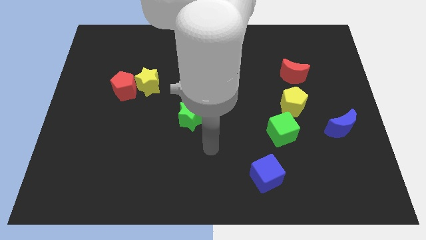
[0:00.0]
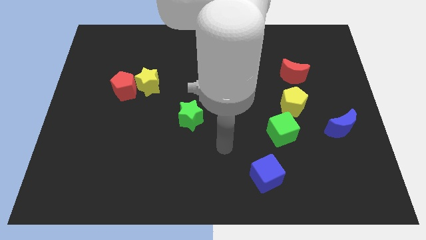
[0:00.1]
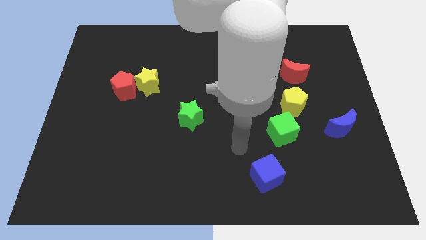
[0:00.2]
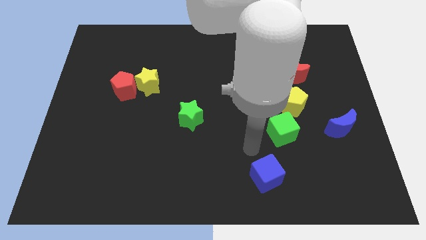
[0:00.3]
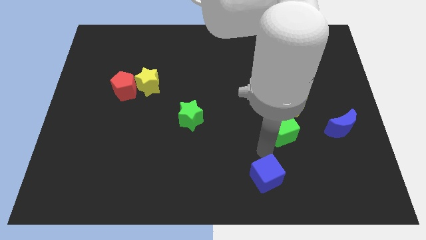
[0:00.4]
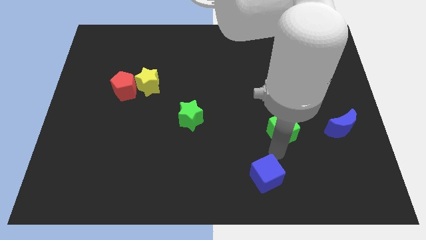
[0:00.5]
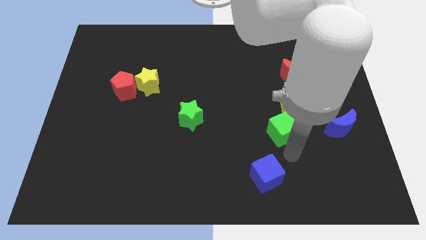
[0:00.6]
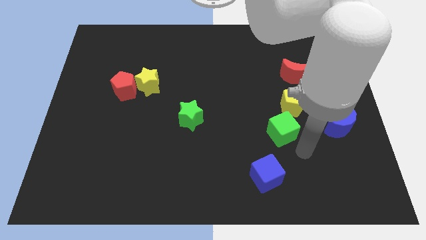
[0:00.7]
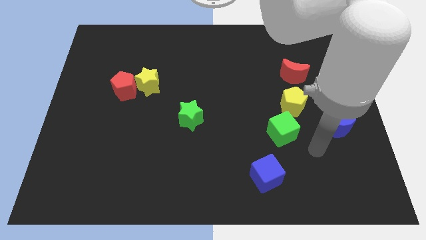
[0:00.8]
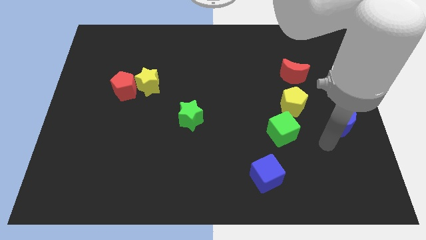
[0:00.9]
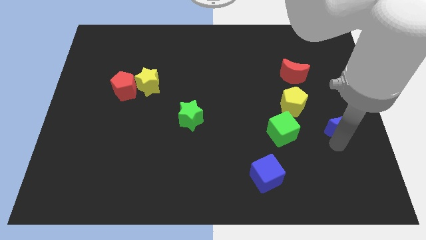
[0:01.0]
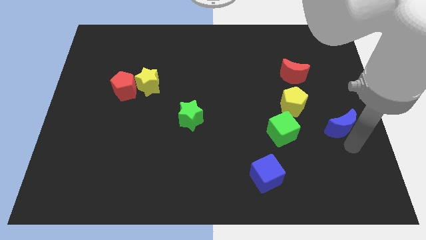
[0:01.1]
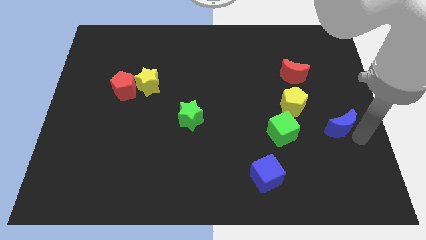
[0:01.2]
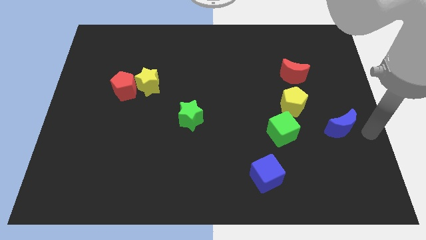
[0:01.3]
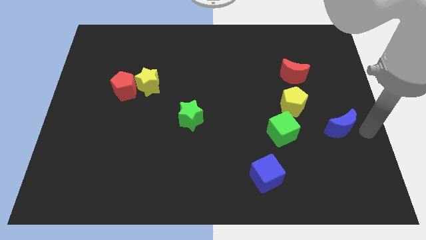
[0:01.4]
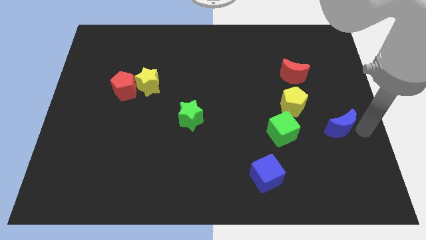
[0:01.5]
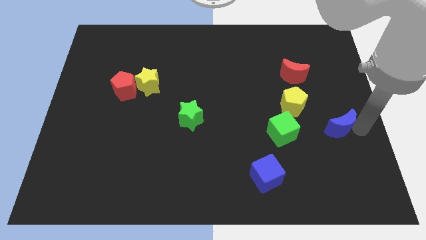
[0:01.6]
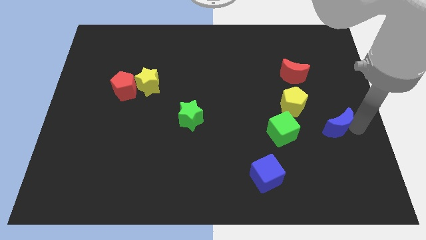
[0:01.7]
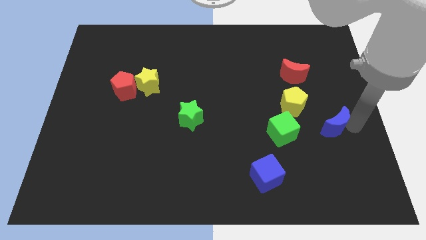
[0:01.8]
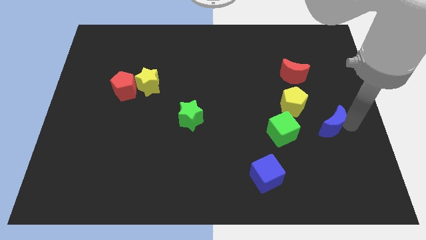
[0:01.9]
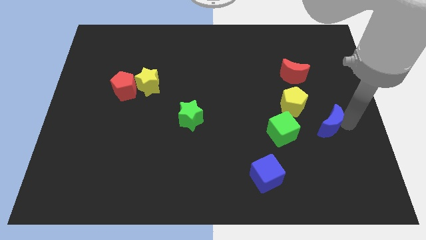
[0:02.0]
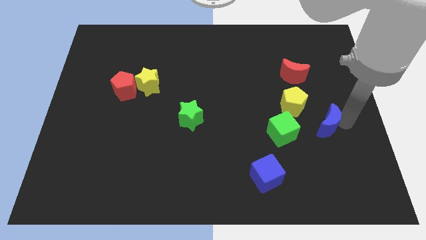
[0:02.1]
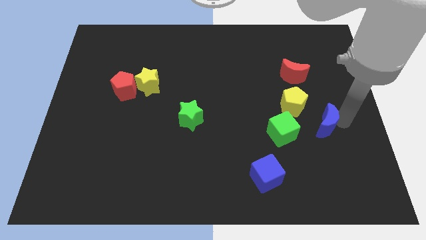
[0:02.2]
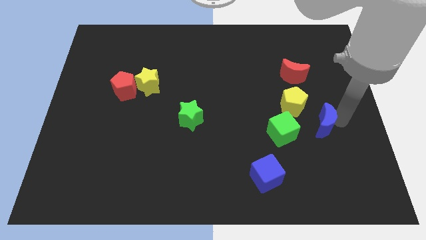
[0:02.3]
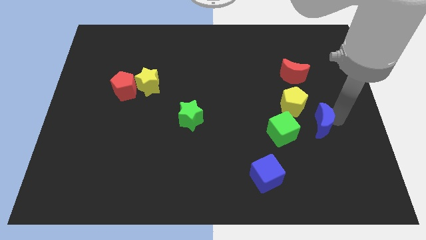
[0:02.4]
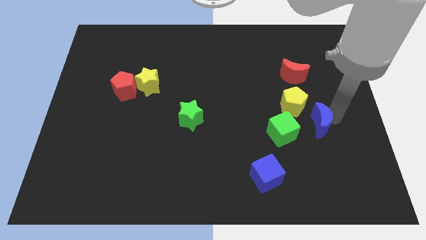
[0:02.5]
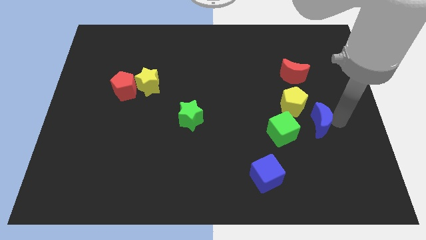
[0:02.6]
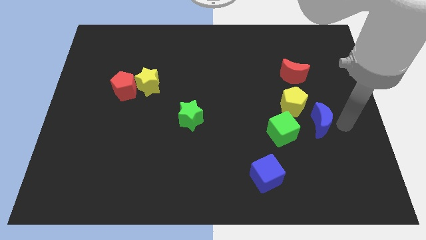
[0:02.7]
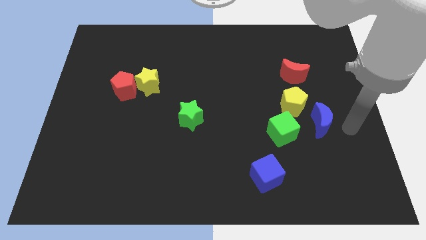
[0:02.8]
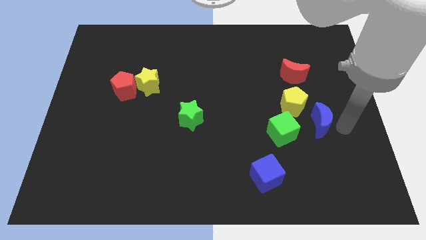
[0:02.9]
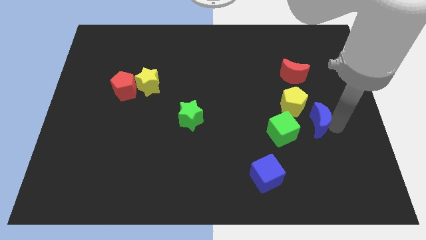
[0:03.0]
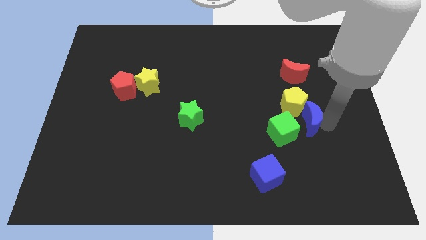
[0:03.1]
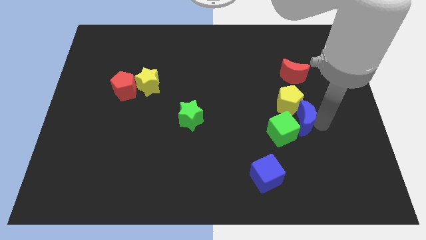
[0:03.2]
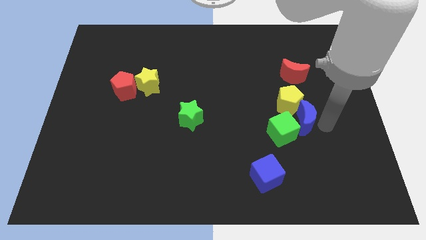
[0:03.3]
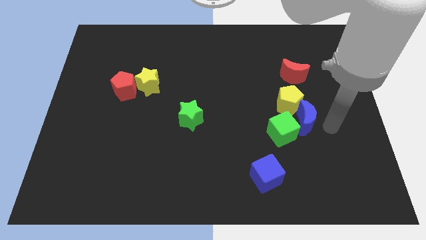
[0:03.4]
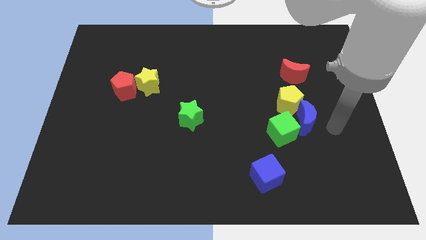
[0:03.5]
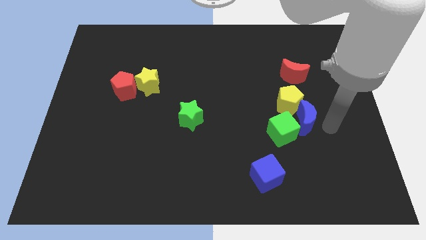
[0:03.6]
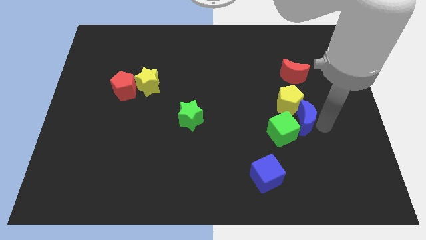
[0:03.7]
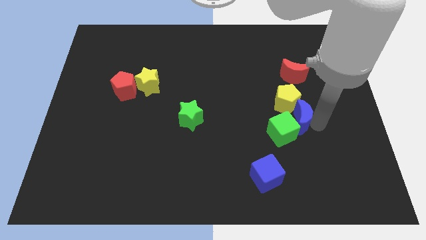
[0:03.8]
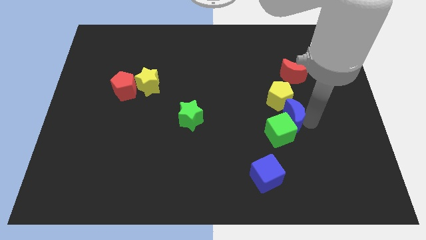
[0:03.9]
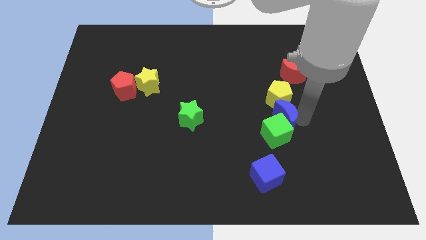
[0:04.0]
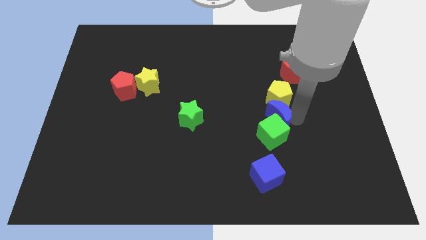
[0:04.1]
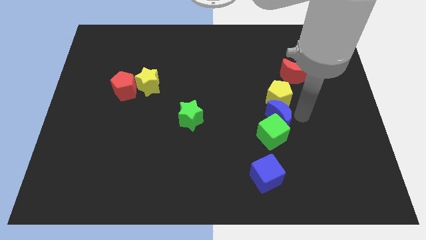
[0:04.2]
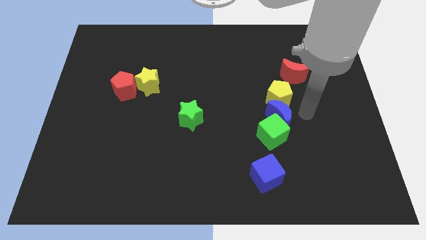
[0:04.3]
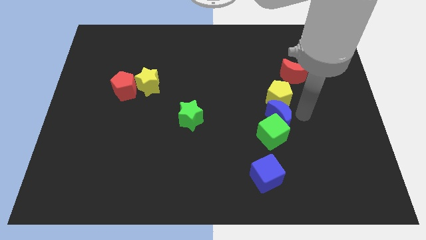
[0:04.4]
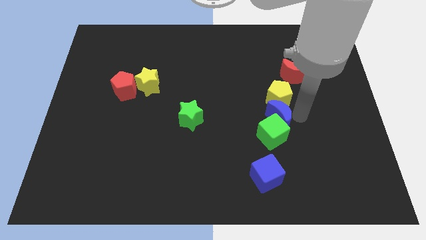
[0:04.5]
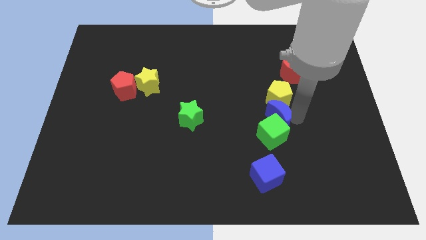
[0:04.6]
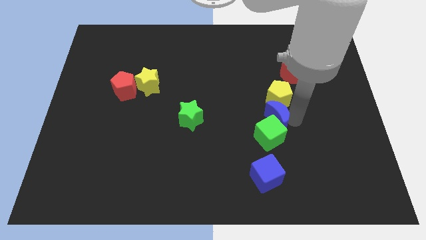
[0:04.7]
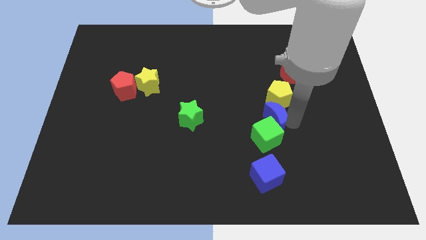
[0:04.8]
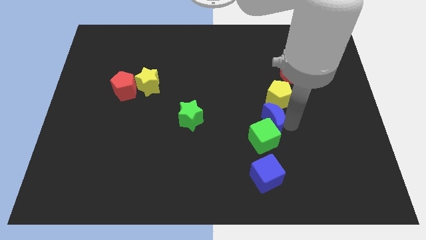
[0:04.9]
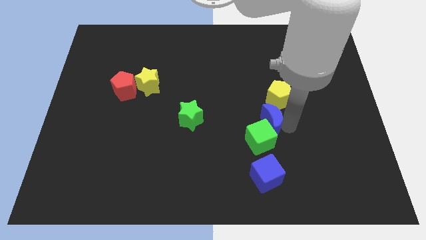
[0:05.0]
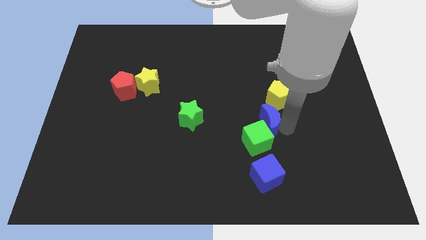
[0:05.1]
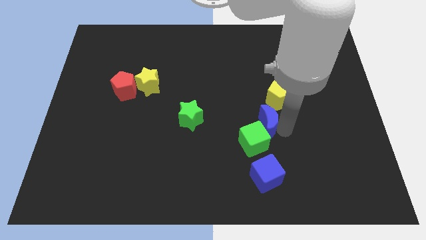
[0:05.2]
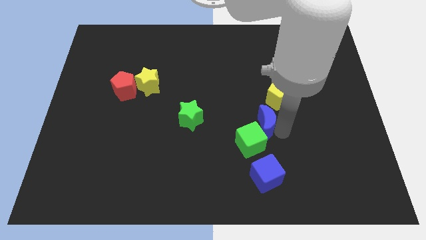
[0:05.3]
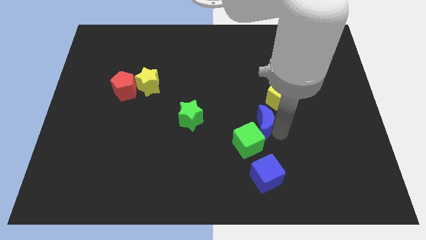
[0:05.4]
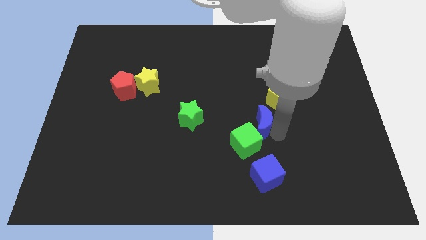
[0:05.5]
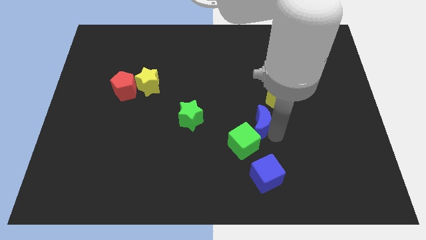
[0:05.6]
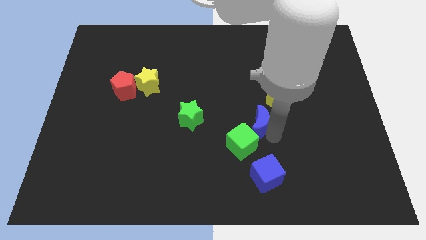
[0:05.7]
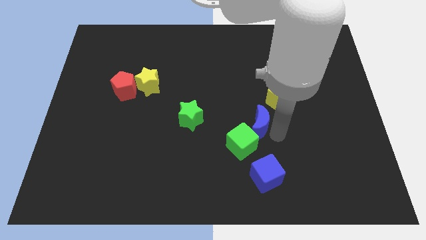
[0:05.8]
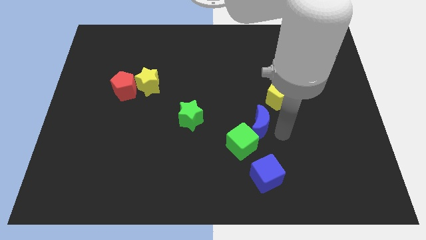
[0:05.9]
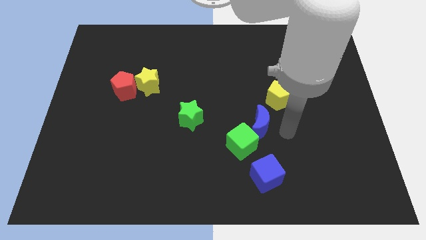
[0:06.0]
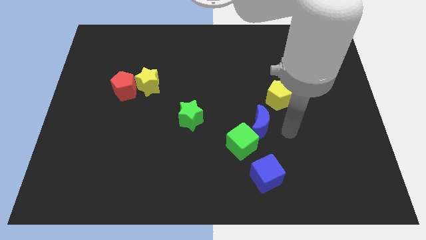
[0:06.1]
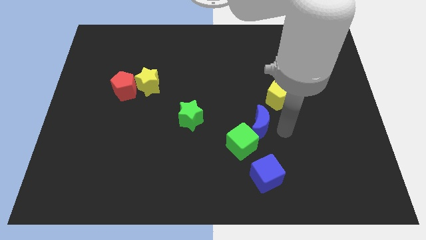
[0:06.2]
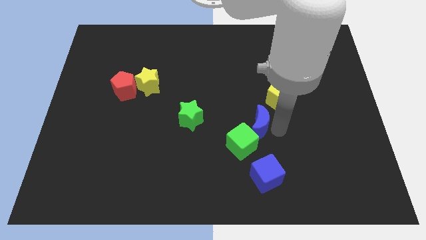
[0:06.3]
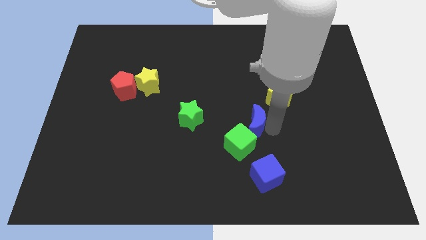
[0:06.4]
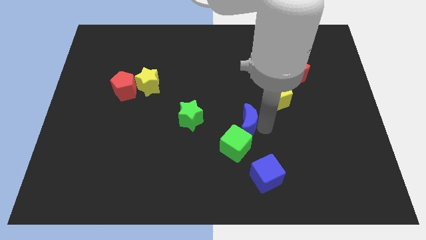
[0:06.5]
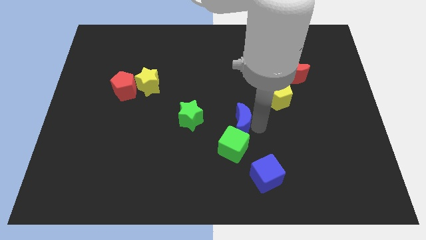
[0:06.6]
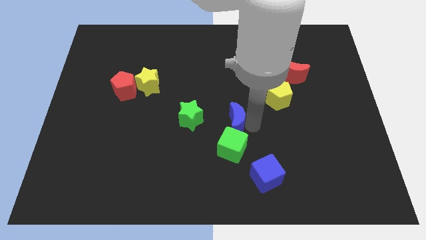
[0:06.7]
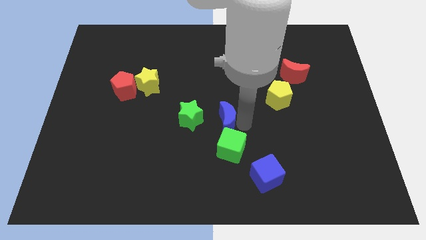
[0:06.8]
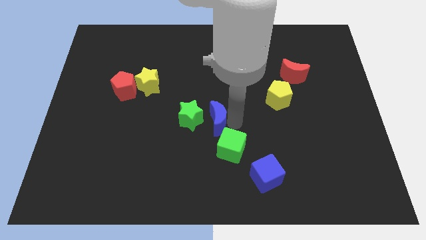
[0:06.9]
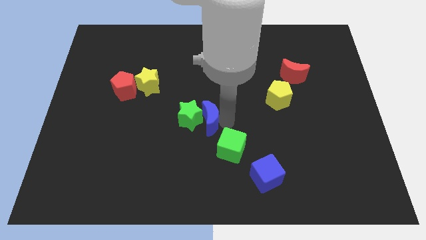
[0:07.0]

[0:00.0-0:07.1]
put the blue moon to the green star

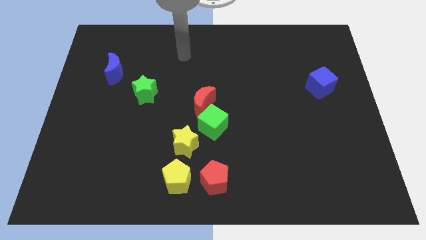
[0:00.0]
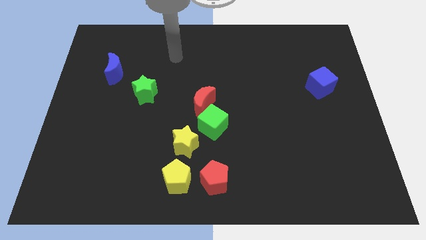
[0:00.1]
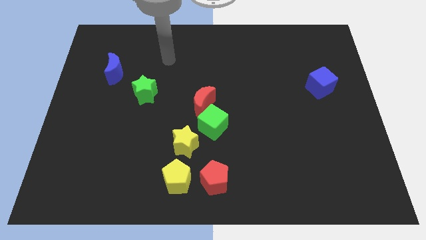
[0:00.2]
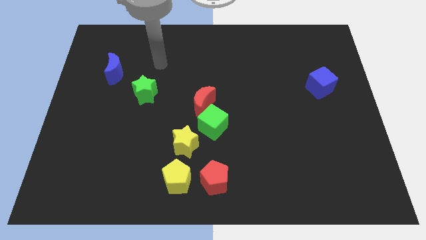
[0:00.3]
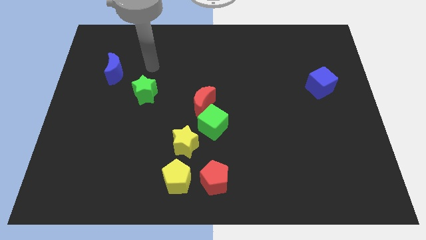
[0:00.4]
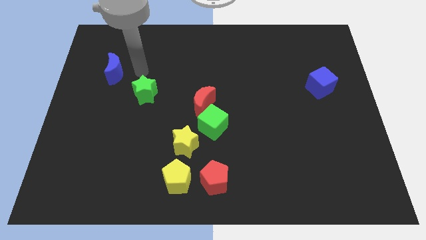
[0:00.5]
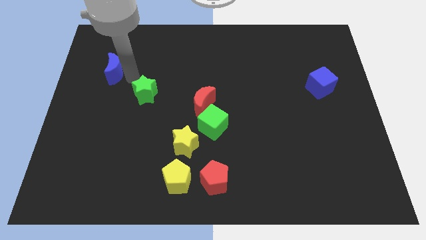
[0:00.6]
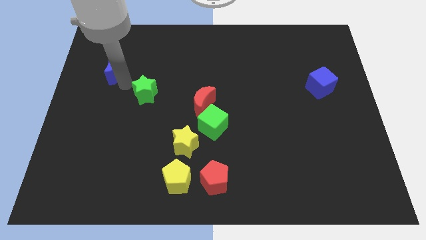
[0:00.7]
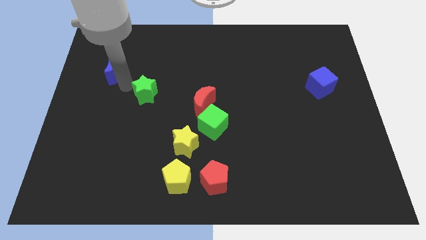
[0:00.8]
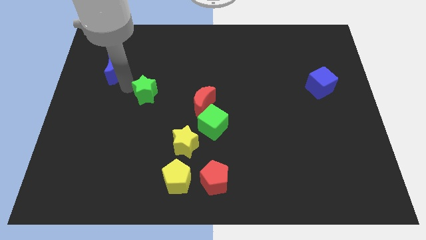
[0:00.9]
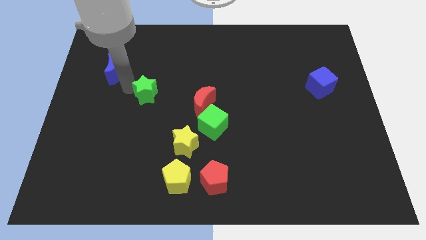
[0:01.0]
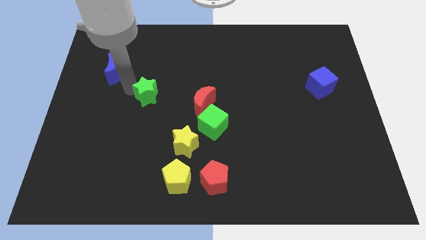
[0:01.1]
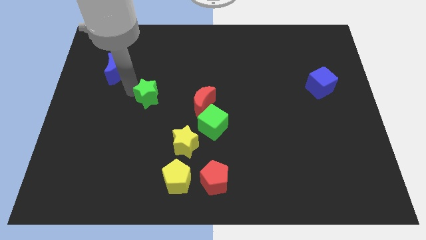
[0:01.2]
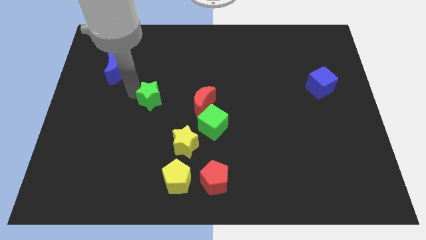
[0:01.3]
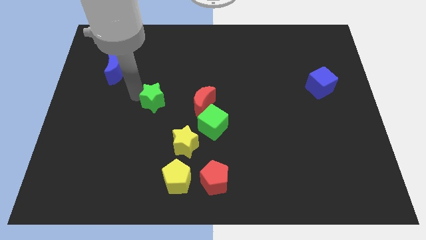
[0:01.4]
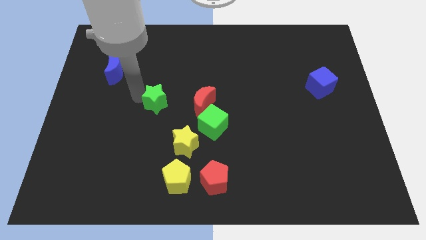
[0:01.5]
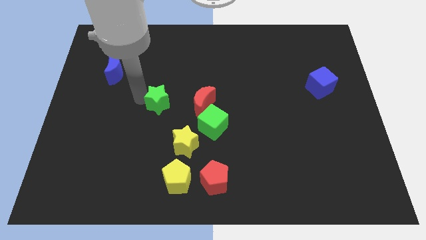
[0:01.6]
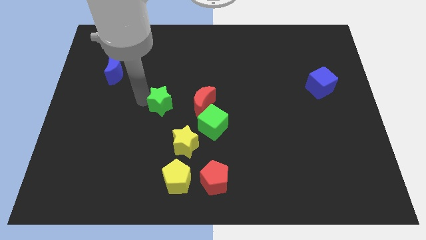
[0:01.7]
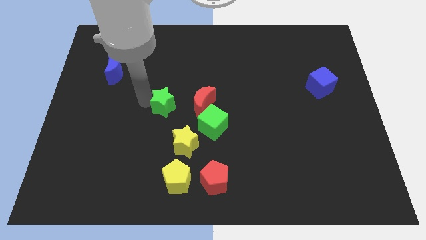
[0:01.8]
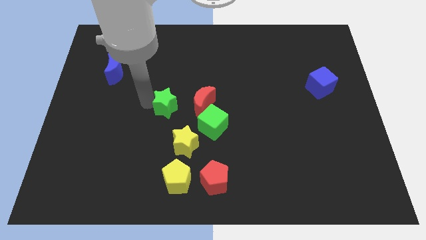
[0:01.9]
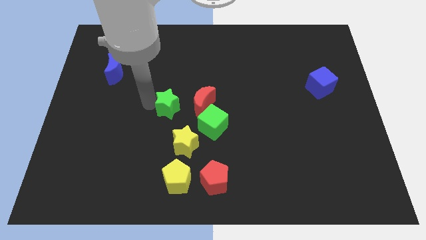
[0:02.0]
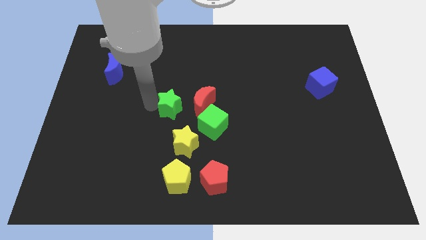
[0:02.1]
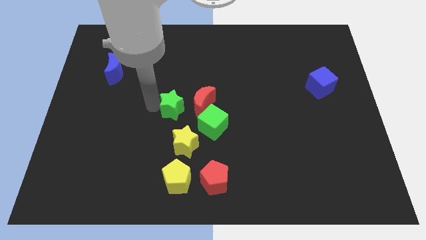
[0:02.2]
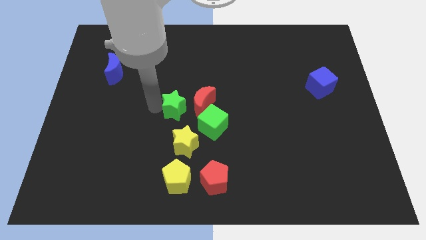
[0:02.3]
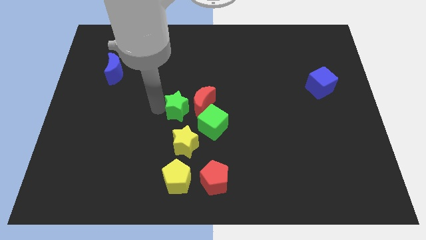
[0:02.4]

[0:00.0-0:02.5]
slide the green star next to the red moon
